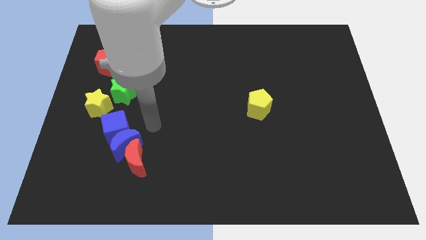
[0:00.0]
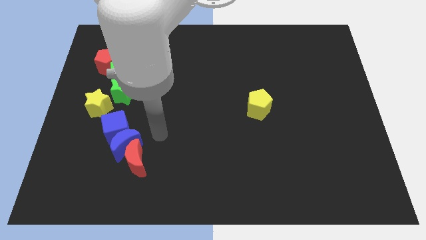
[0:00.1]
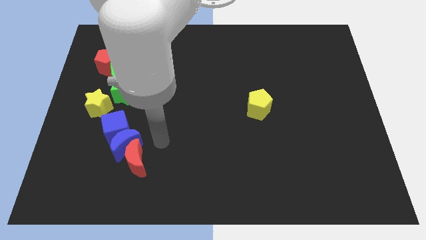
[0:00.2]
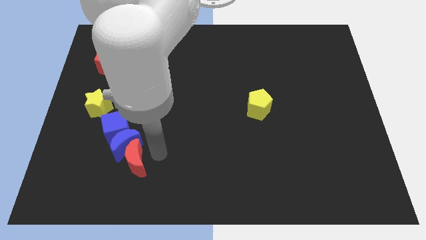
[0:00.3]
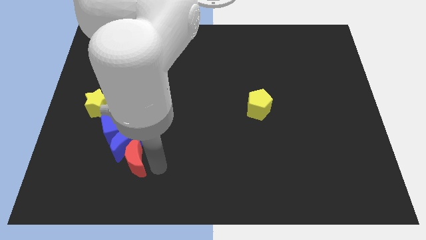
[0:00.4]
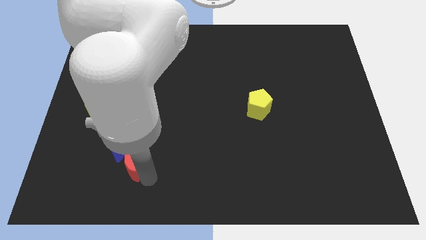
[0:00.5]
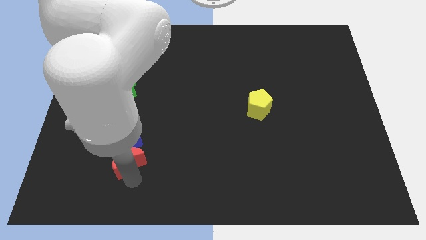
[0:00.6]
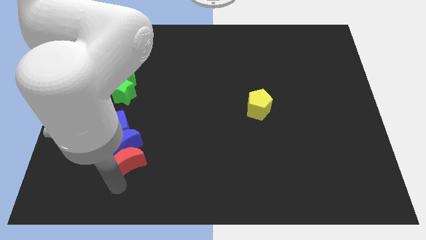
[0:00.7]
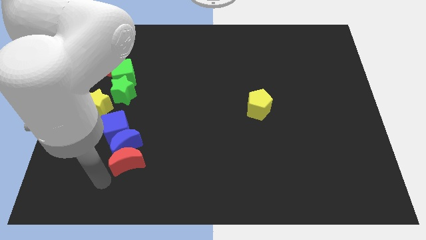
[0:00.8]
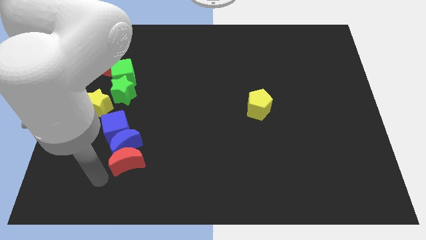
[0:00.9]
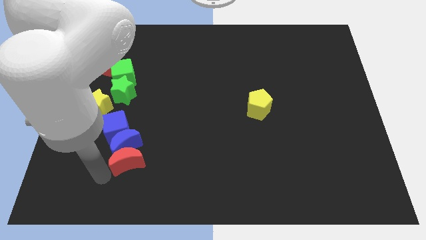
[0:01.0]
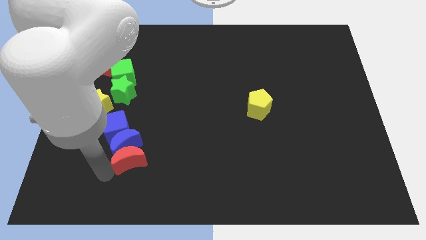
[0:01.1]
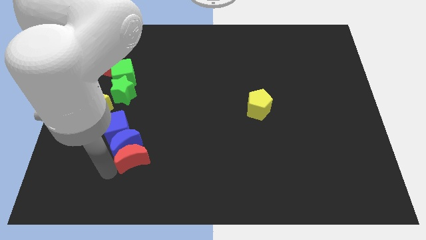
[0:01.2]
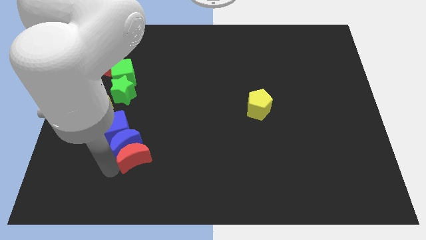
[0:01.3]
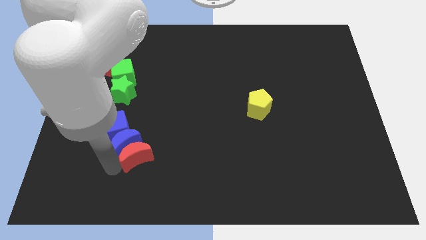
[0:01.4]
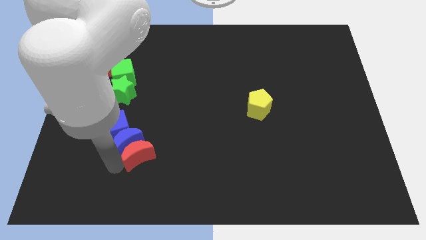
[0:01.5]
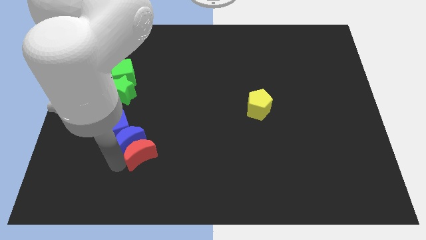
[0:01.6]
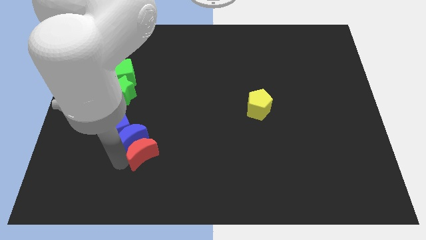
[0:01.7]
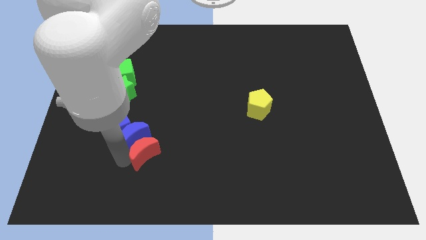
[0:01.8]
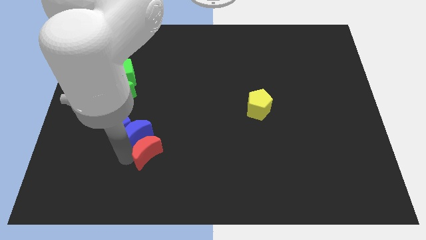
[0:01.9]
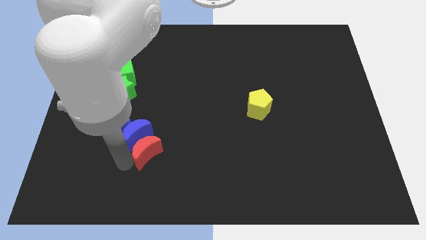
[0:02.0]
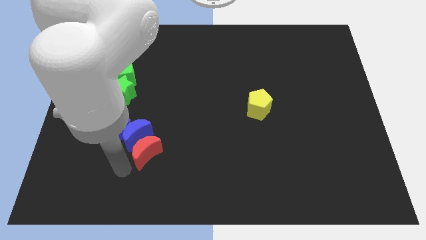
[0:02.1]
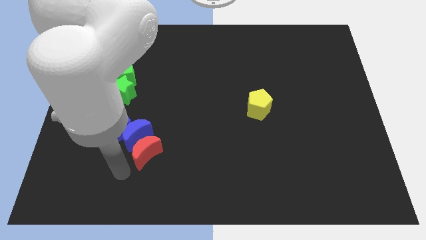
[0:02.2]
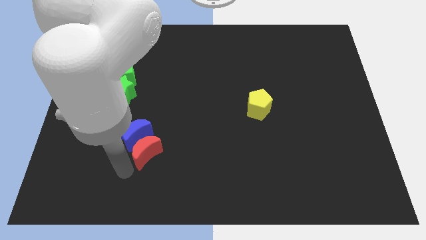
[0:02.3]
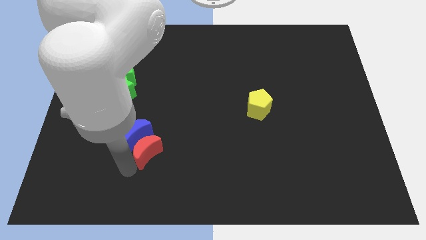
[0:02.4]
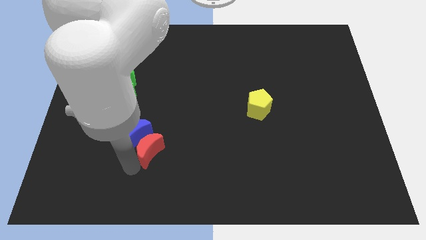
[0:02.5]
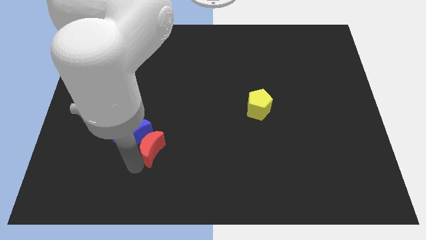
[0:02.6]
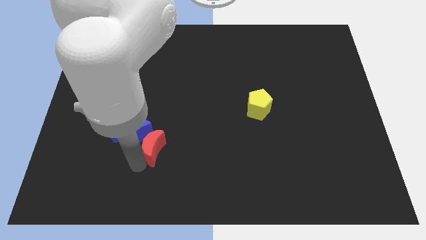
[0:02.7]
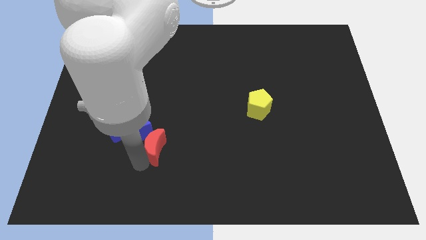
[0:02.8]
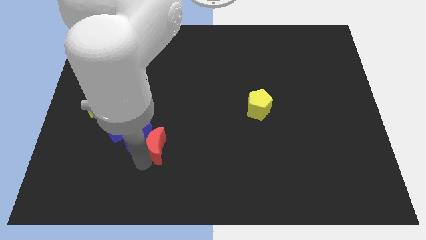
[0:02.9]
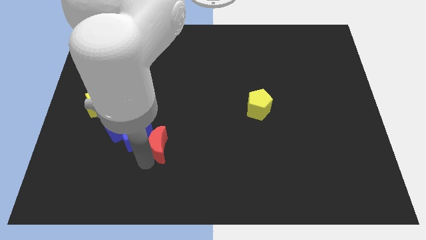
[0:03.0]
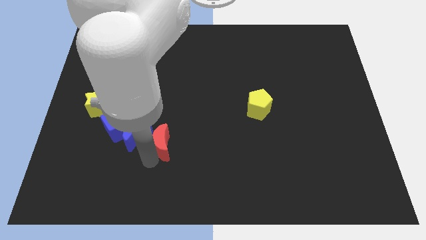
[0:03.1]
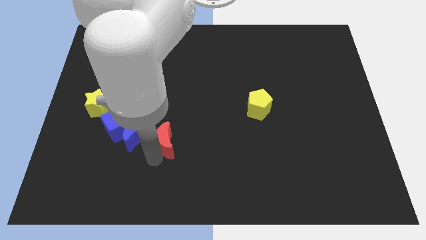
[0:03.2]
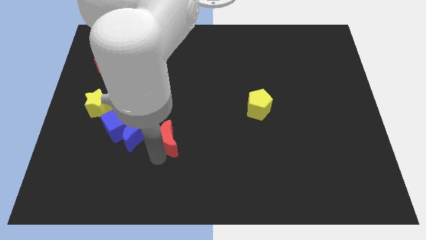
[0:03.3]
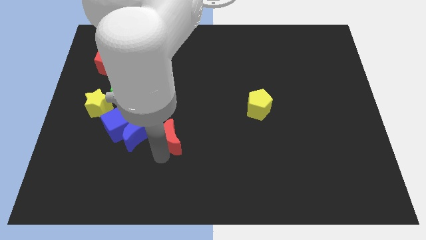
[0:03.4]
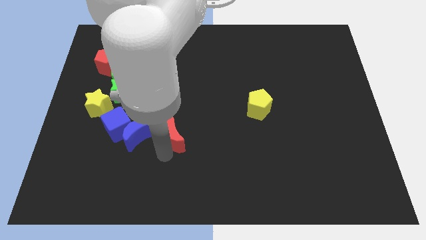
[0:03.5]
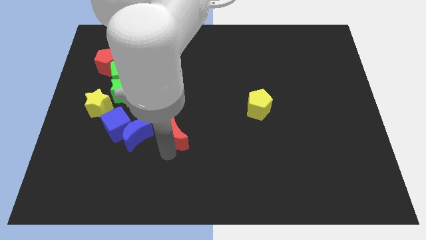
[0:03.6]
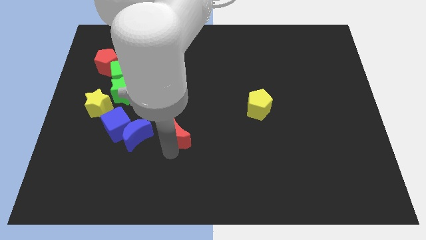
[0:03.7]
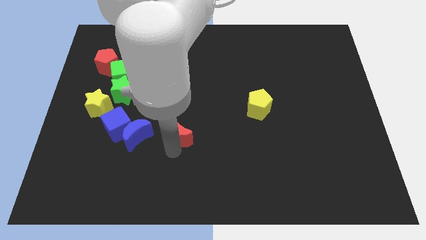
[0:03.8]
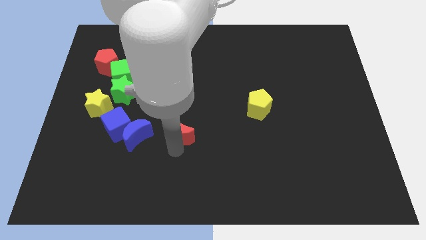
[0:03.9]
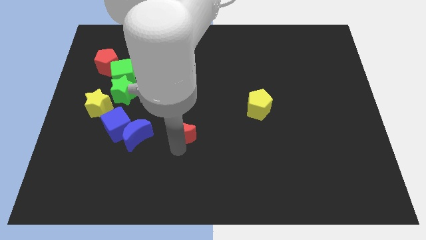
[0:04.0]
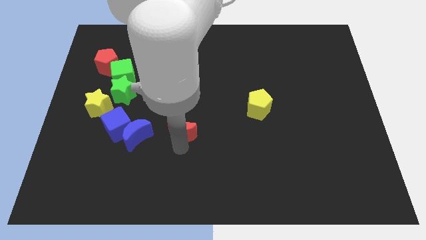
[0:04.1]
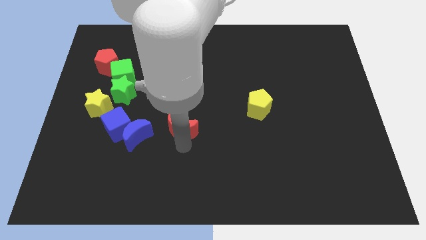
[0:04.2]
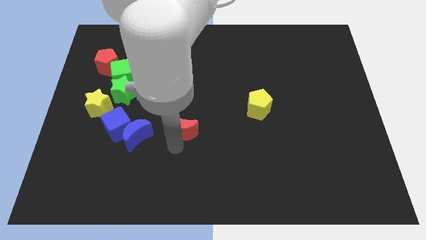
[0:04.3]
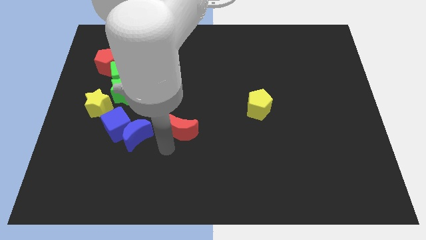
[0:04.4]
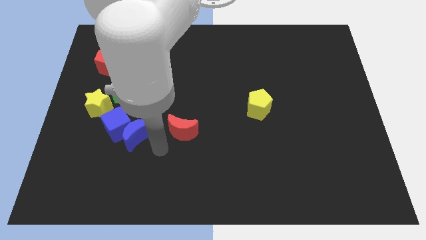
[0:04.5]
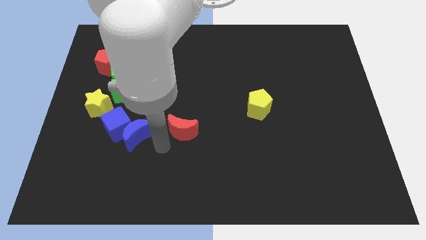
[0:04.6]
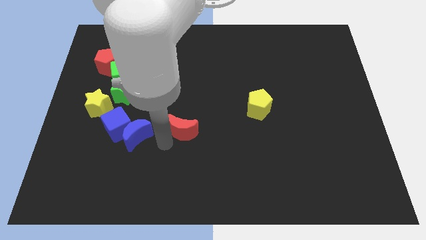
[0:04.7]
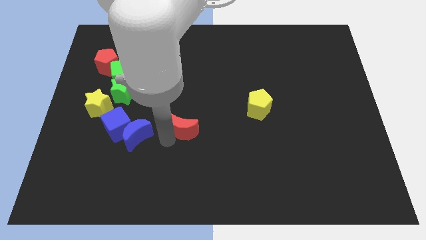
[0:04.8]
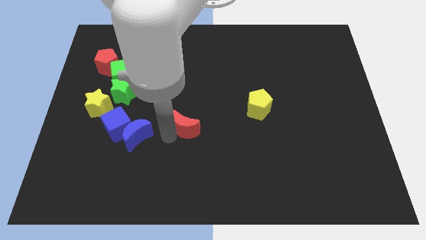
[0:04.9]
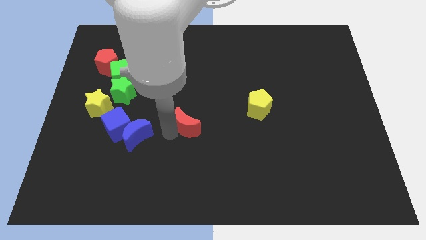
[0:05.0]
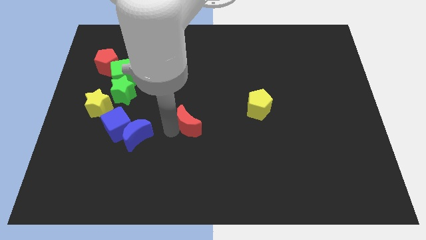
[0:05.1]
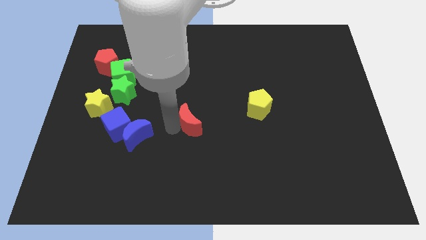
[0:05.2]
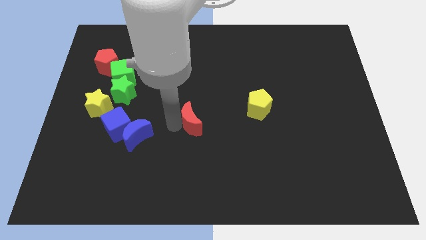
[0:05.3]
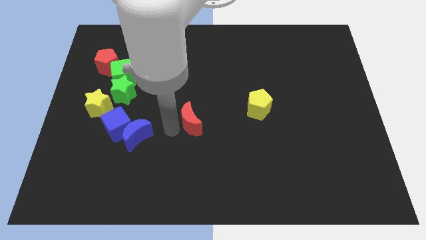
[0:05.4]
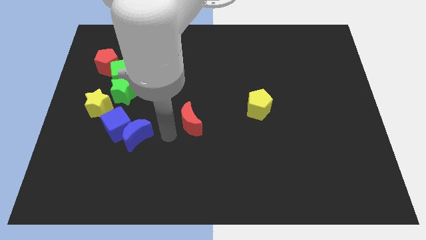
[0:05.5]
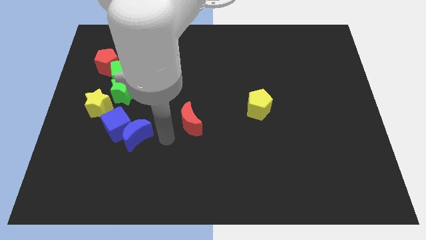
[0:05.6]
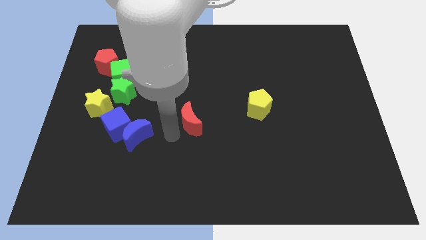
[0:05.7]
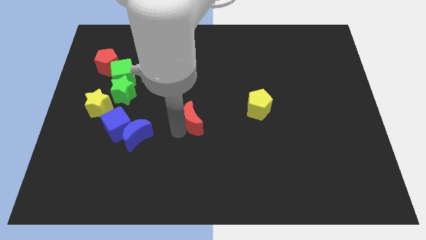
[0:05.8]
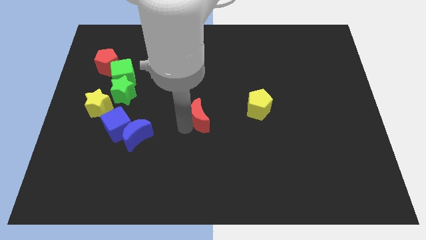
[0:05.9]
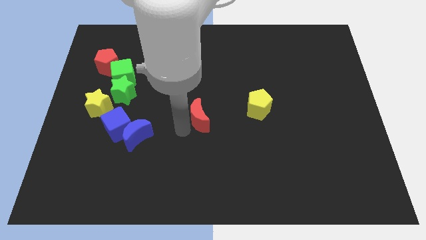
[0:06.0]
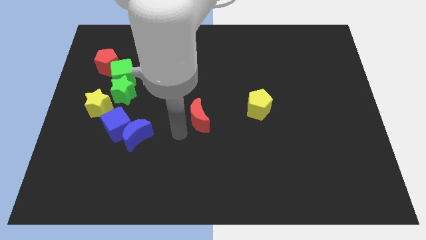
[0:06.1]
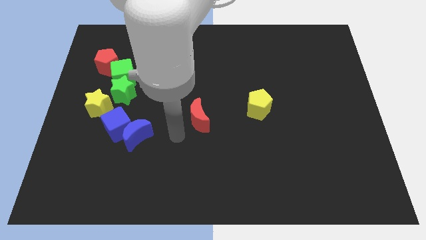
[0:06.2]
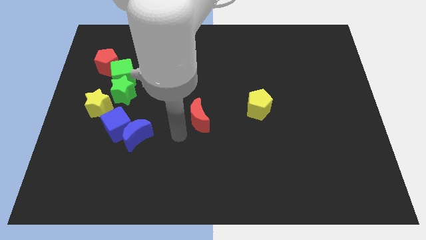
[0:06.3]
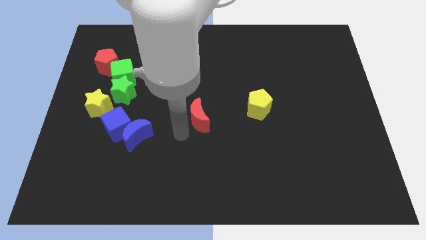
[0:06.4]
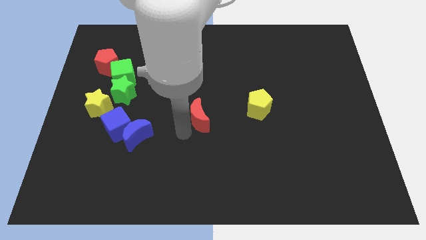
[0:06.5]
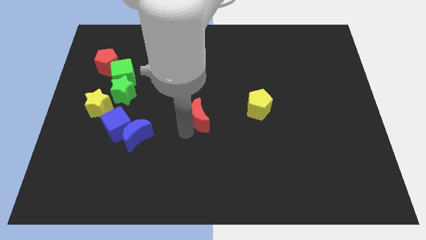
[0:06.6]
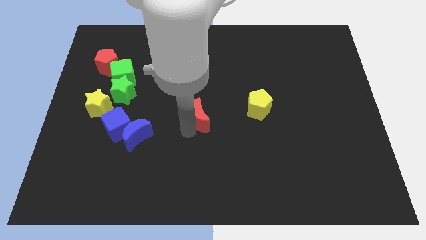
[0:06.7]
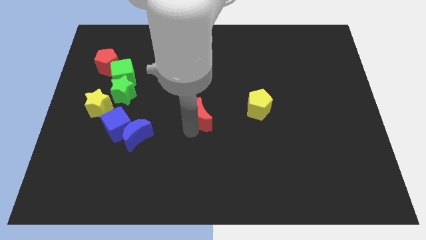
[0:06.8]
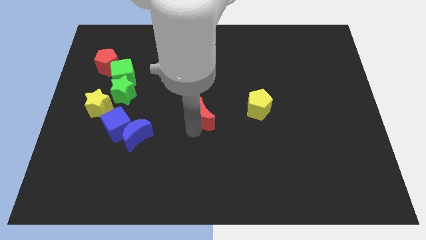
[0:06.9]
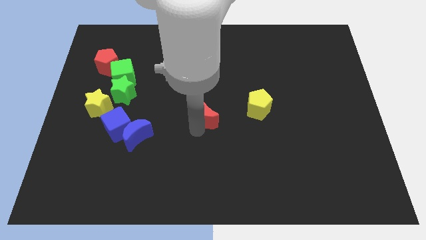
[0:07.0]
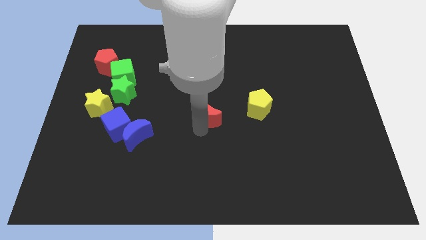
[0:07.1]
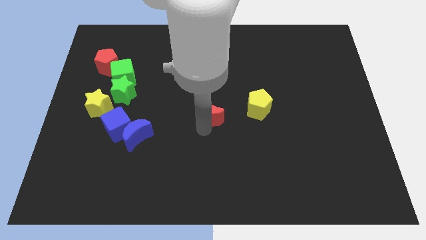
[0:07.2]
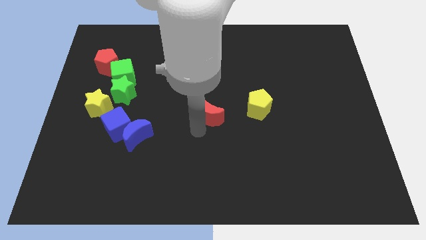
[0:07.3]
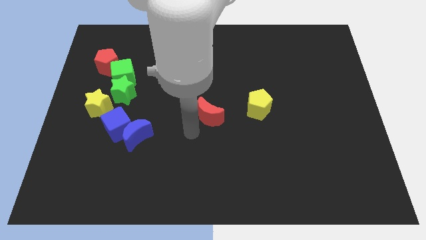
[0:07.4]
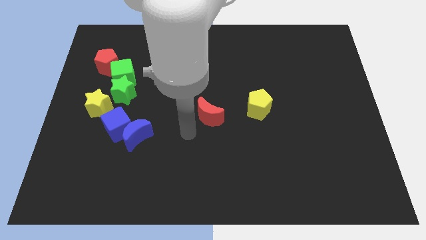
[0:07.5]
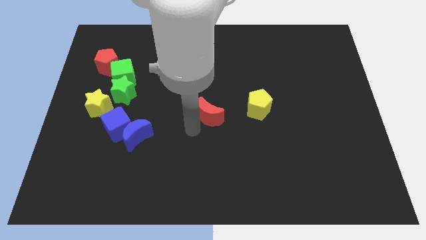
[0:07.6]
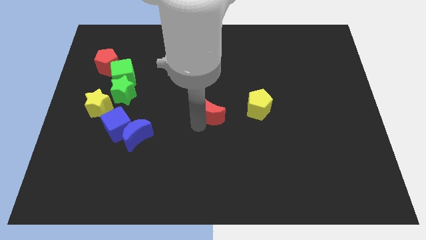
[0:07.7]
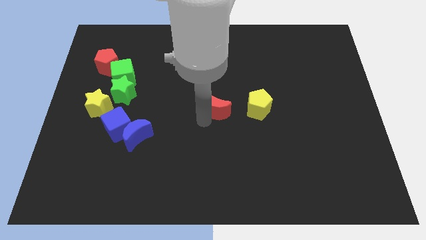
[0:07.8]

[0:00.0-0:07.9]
move the red moon up and right
